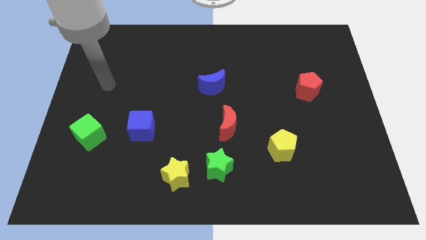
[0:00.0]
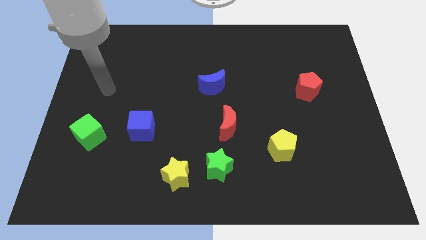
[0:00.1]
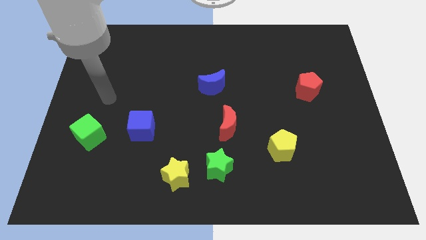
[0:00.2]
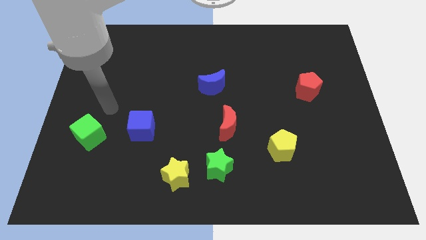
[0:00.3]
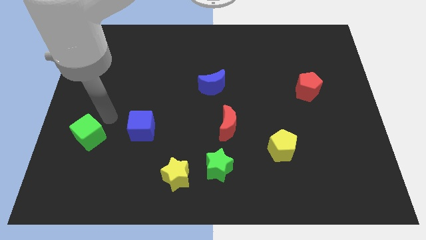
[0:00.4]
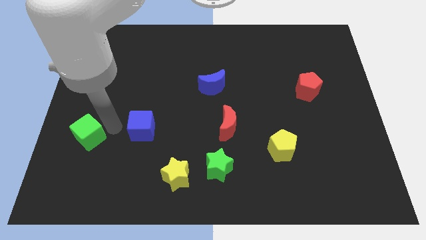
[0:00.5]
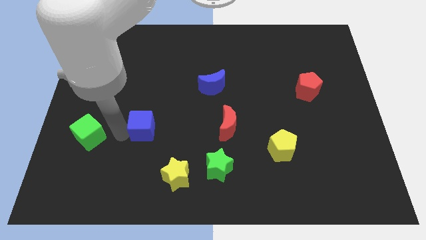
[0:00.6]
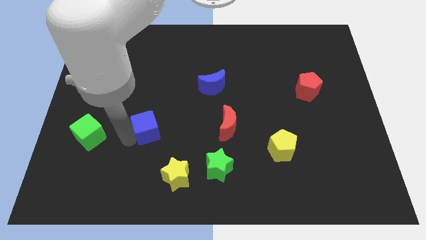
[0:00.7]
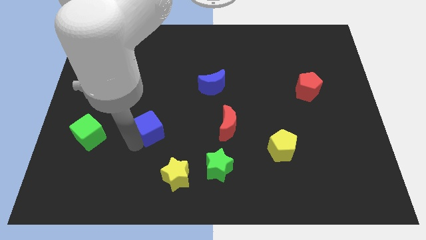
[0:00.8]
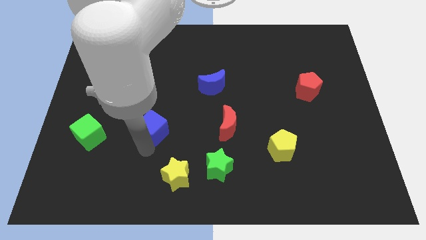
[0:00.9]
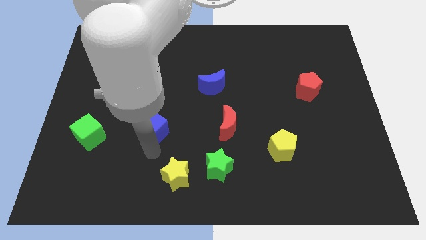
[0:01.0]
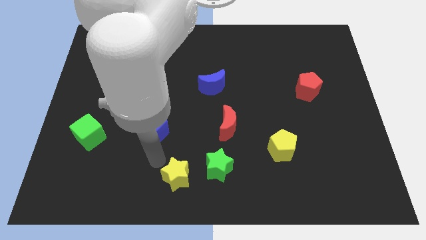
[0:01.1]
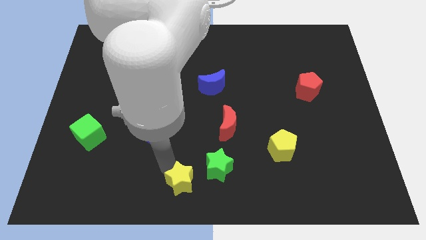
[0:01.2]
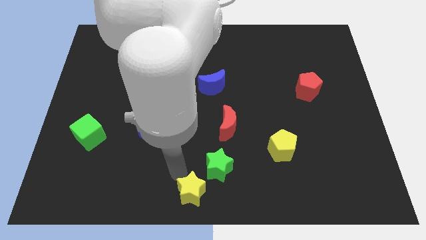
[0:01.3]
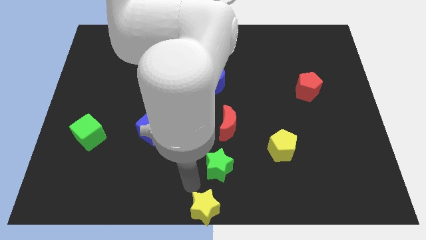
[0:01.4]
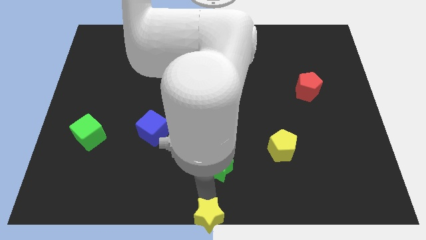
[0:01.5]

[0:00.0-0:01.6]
pull the green star apart from the yellow star

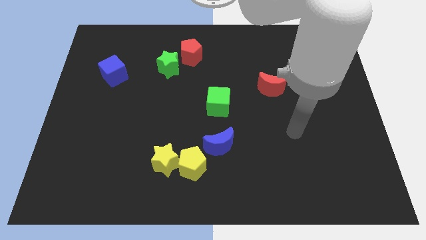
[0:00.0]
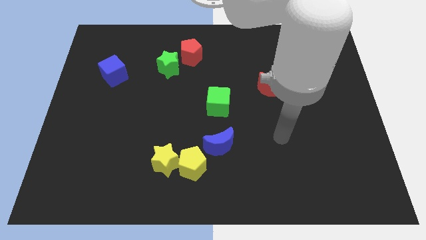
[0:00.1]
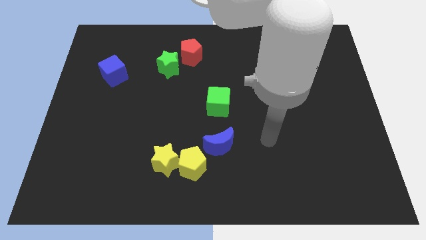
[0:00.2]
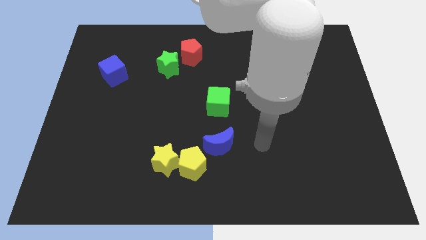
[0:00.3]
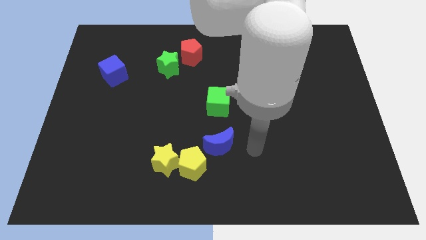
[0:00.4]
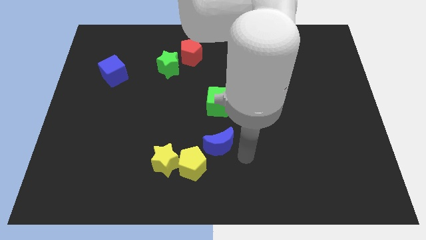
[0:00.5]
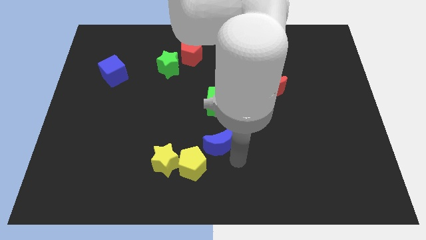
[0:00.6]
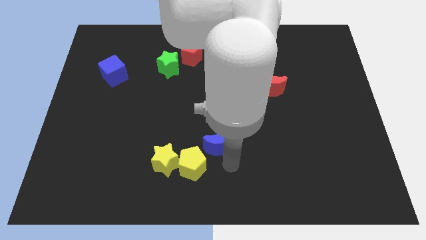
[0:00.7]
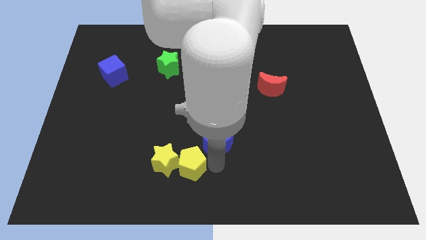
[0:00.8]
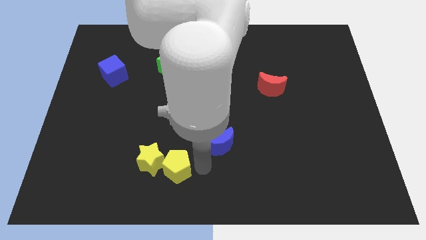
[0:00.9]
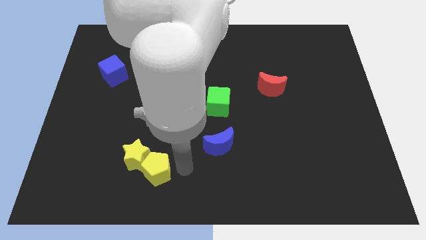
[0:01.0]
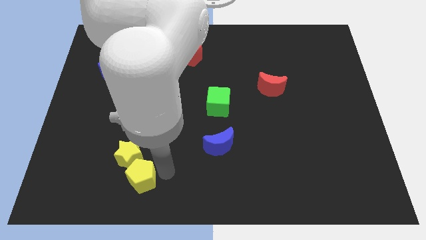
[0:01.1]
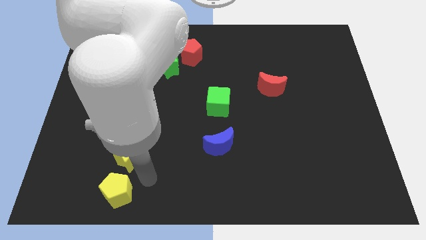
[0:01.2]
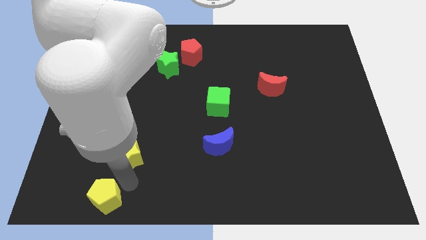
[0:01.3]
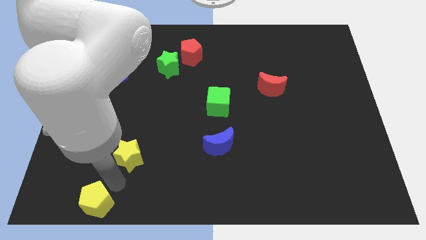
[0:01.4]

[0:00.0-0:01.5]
move the yellow star away from the yellow pentagon

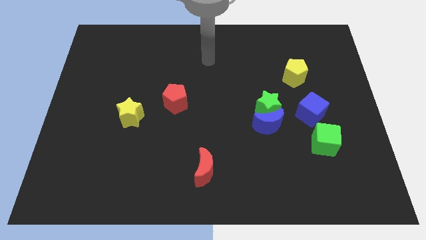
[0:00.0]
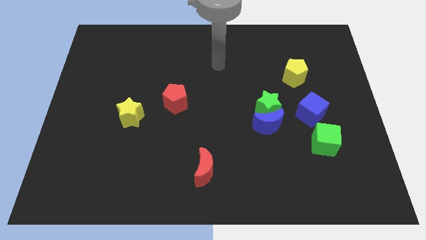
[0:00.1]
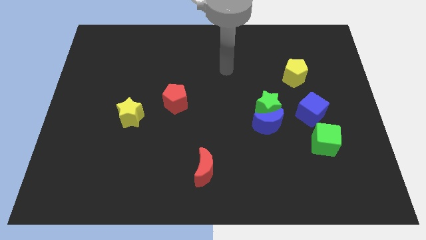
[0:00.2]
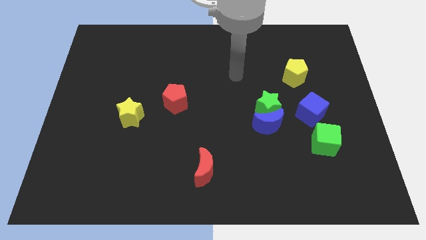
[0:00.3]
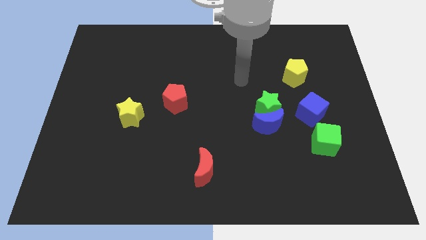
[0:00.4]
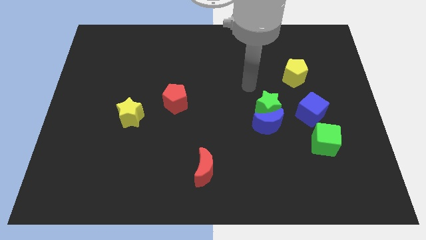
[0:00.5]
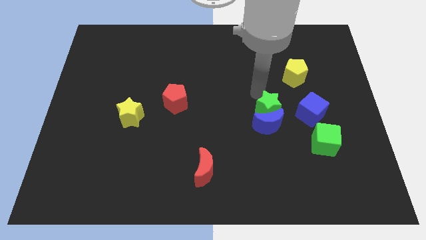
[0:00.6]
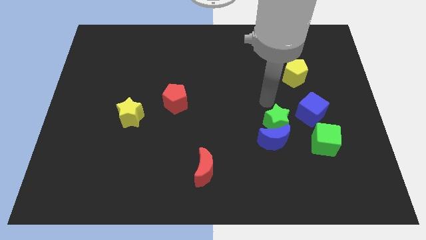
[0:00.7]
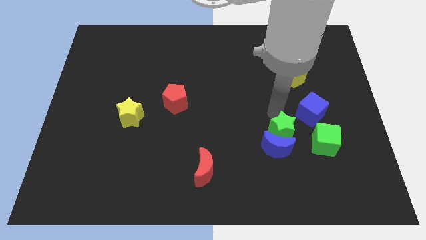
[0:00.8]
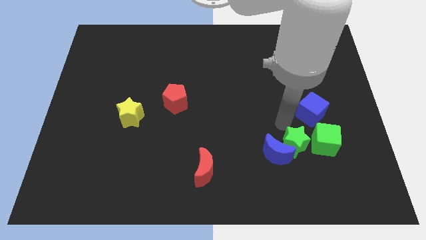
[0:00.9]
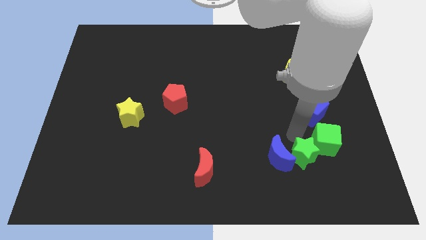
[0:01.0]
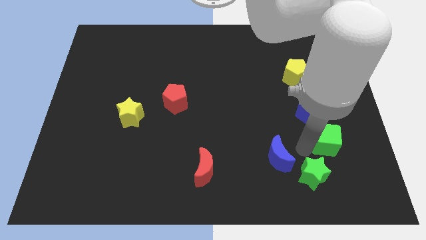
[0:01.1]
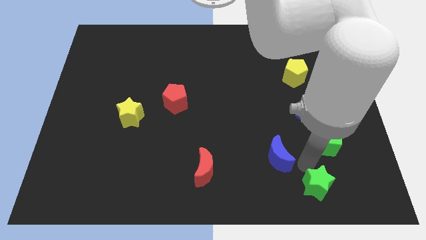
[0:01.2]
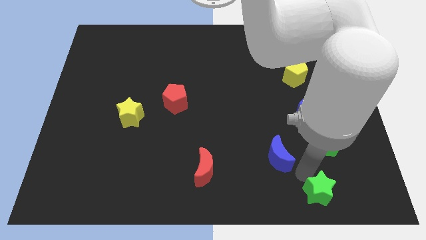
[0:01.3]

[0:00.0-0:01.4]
move the blue moon away from the green star

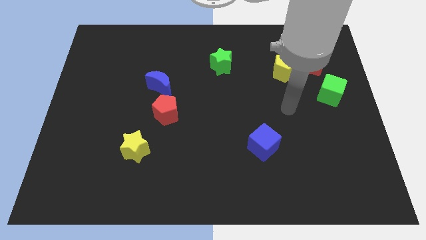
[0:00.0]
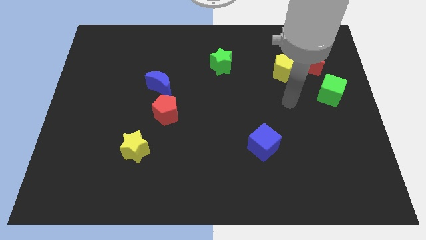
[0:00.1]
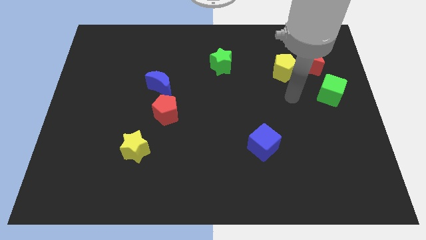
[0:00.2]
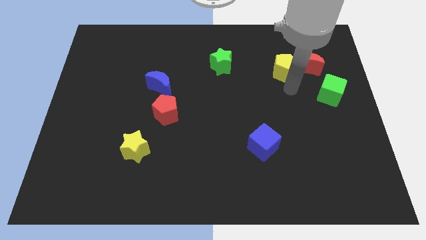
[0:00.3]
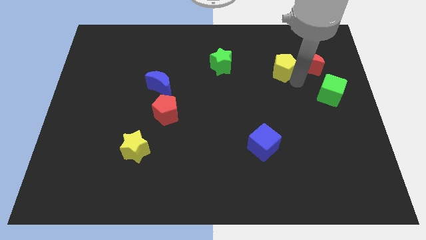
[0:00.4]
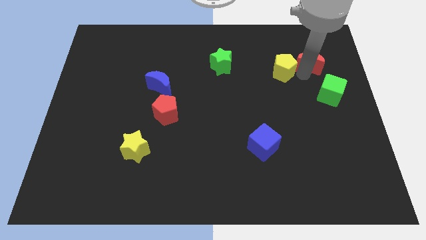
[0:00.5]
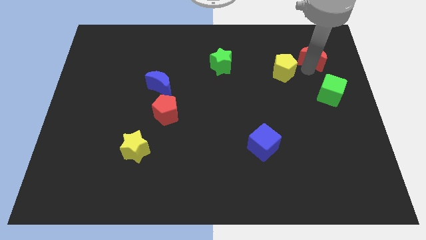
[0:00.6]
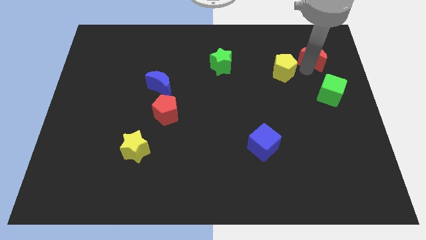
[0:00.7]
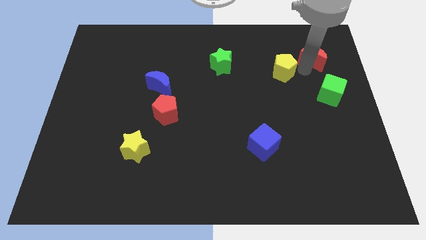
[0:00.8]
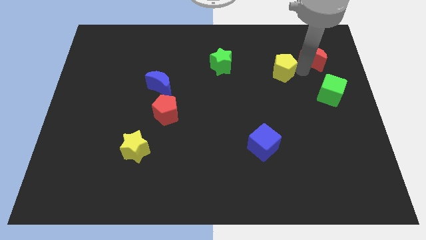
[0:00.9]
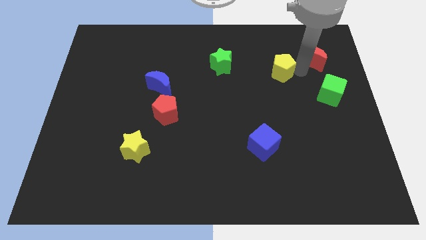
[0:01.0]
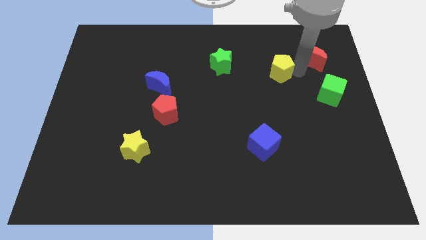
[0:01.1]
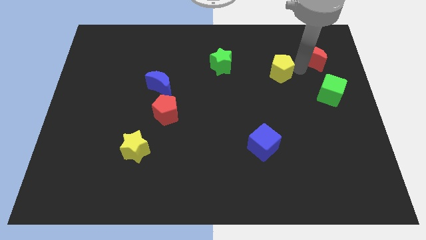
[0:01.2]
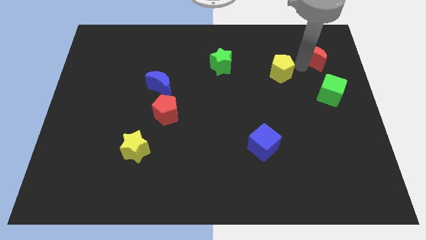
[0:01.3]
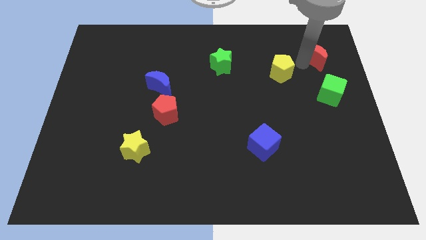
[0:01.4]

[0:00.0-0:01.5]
move the yellow pentagon away from the red moon

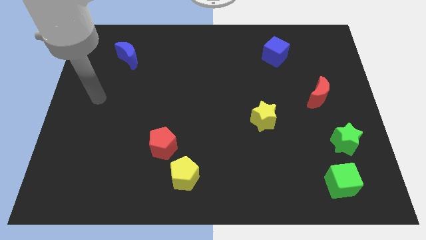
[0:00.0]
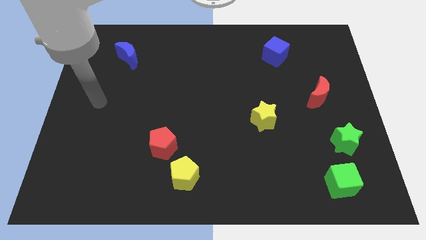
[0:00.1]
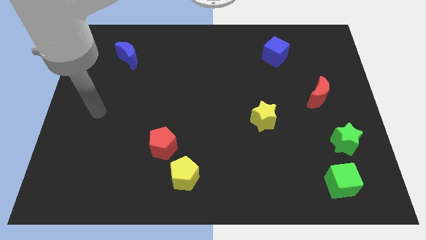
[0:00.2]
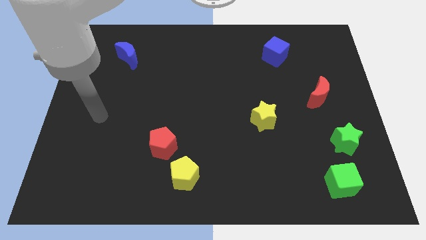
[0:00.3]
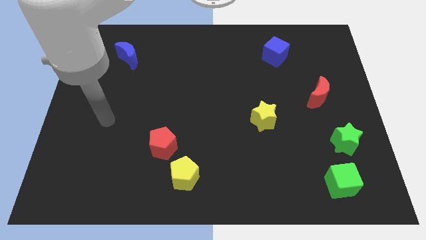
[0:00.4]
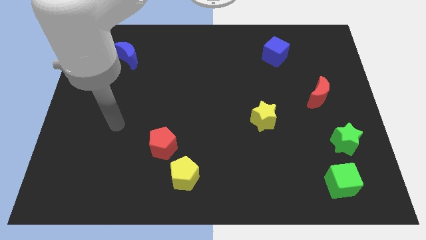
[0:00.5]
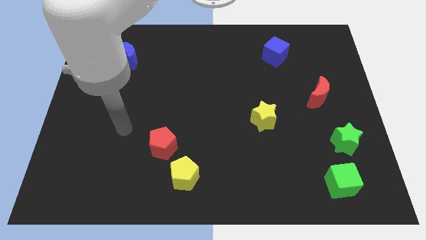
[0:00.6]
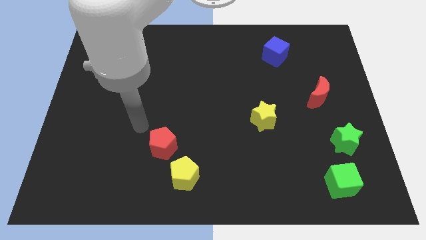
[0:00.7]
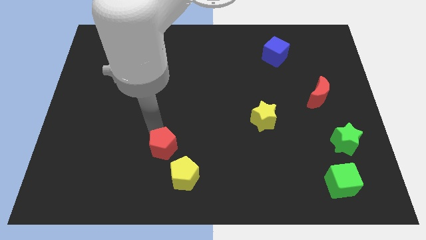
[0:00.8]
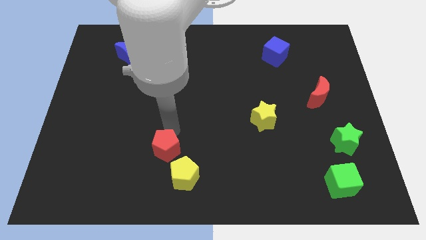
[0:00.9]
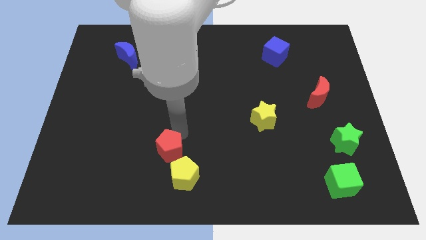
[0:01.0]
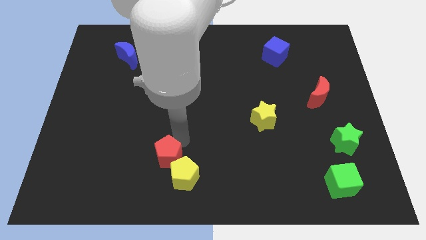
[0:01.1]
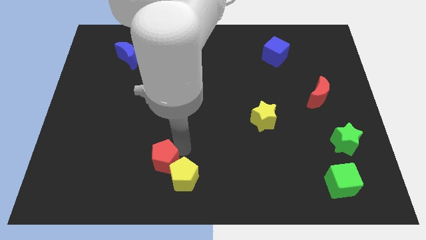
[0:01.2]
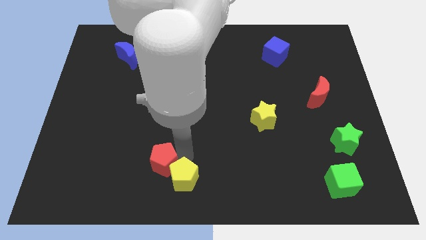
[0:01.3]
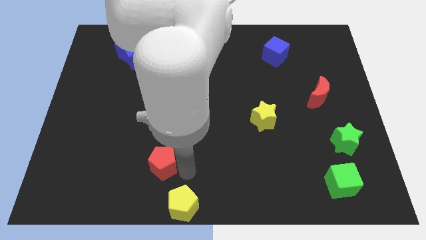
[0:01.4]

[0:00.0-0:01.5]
move the red pentagon away from the yellow pentagon

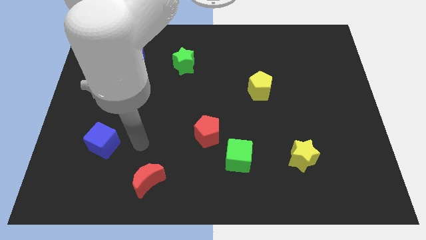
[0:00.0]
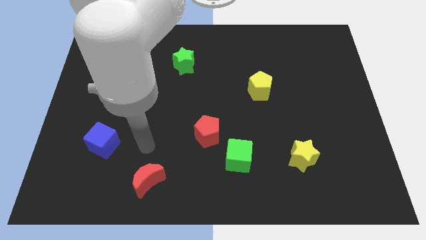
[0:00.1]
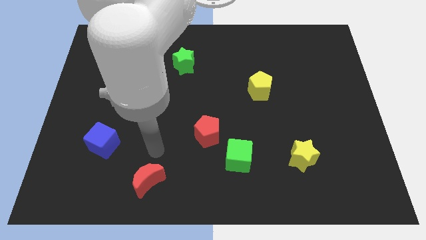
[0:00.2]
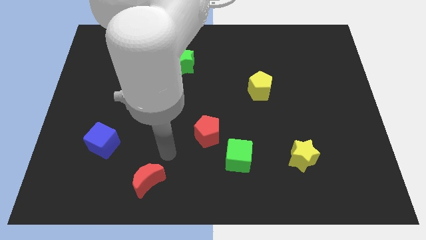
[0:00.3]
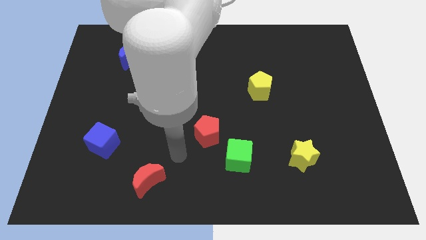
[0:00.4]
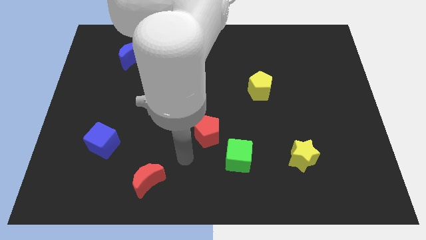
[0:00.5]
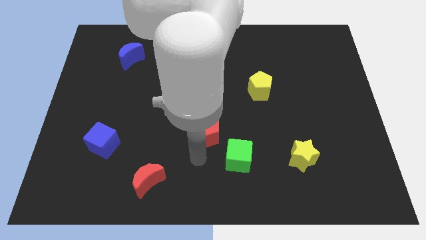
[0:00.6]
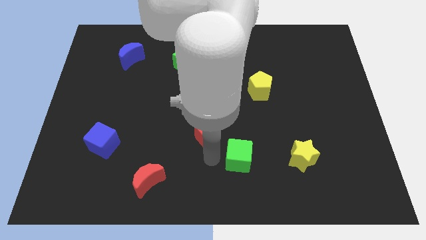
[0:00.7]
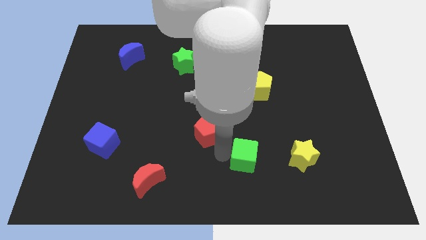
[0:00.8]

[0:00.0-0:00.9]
pull the red pentagon apart from the green cube

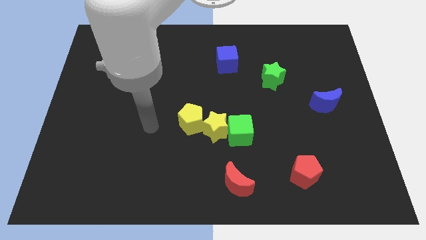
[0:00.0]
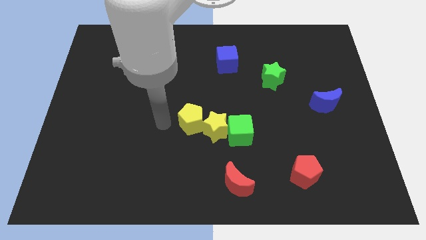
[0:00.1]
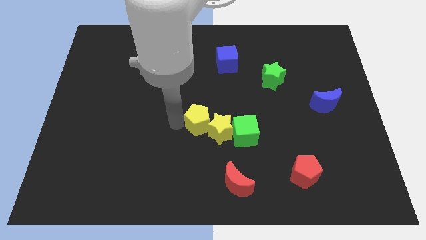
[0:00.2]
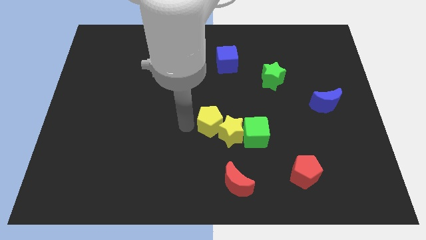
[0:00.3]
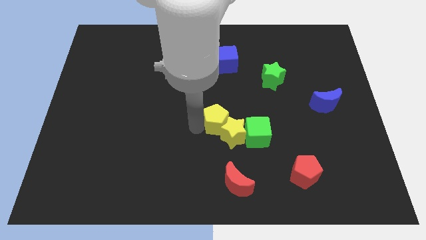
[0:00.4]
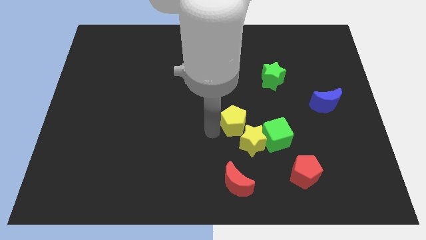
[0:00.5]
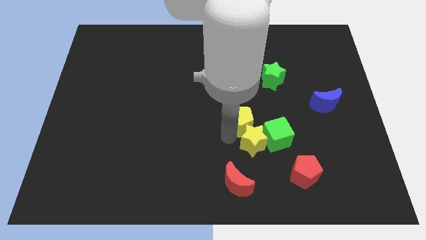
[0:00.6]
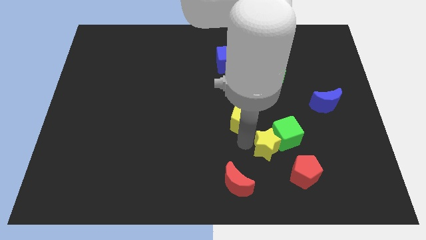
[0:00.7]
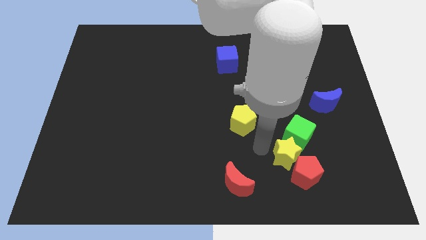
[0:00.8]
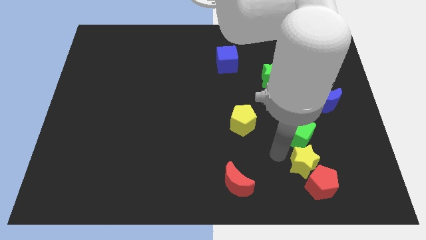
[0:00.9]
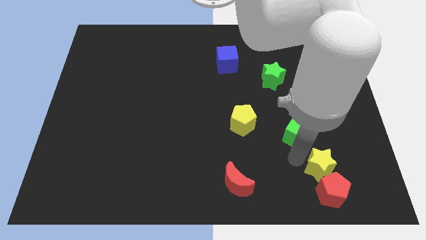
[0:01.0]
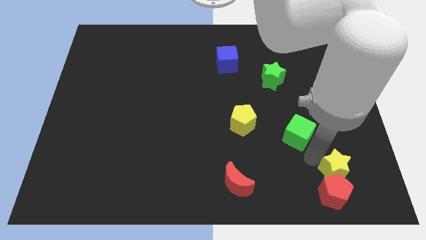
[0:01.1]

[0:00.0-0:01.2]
move the green cube away from the yellow star
